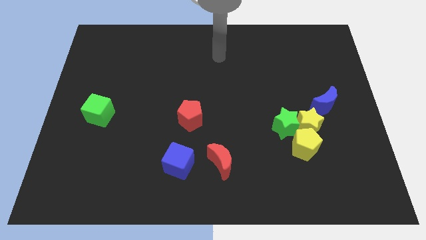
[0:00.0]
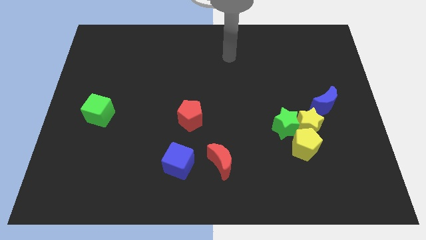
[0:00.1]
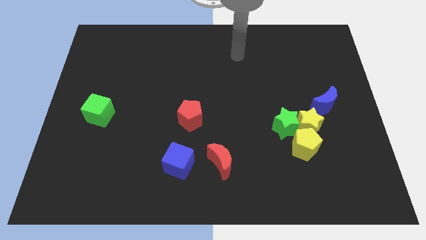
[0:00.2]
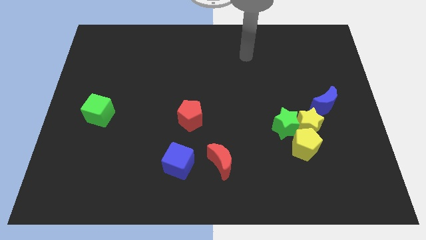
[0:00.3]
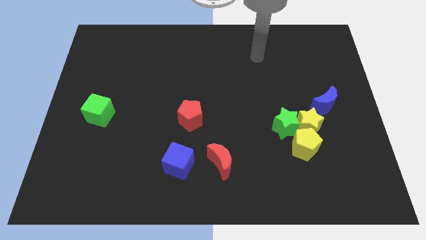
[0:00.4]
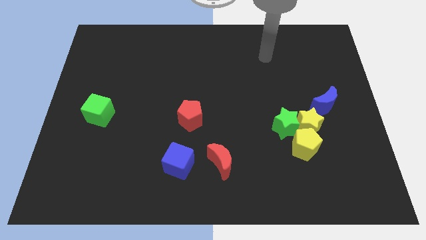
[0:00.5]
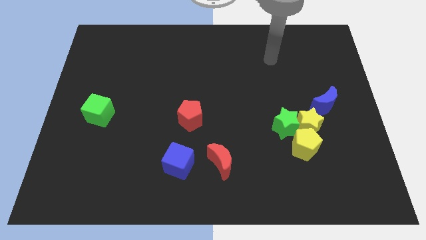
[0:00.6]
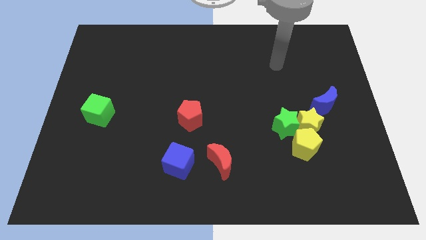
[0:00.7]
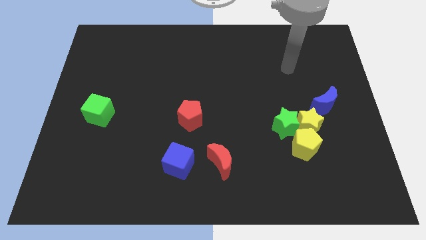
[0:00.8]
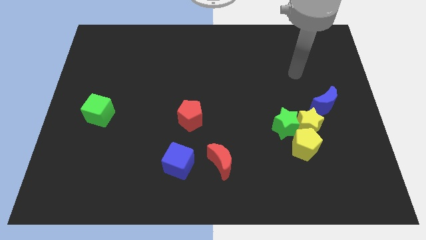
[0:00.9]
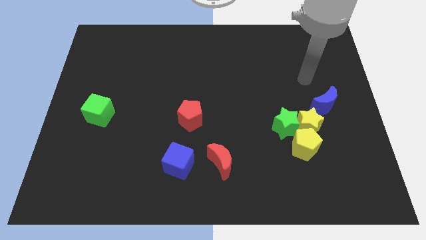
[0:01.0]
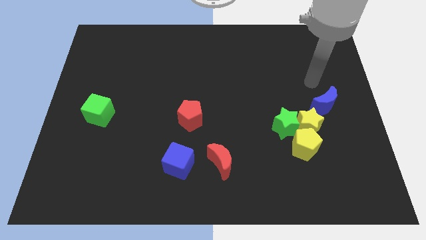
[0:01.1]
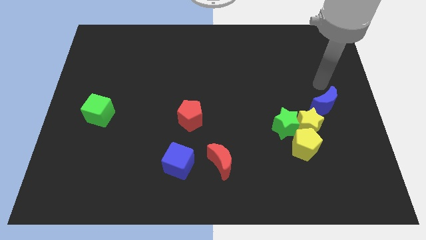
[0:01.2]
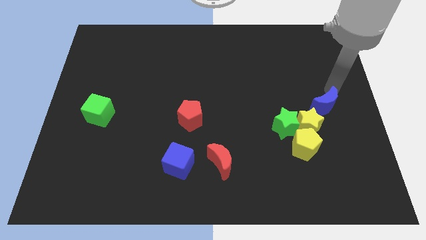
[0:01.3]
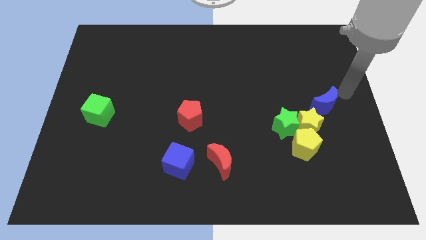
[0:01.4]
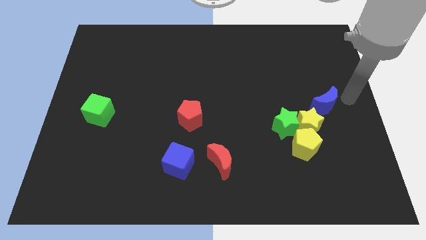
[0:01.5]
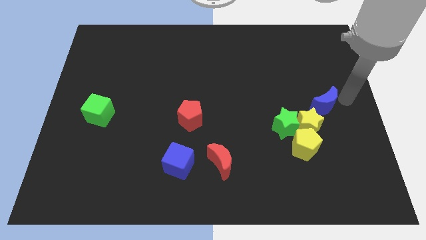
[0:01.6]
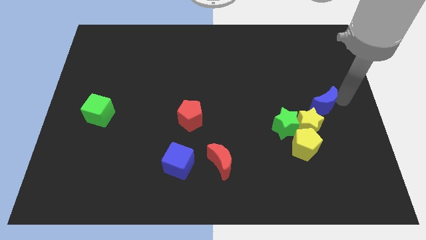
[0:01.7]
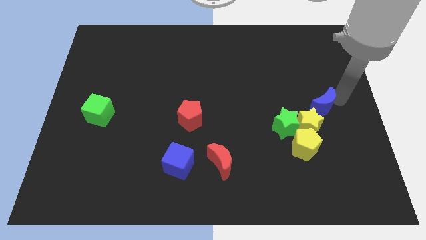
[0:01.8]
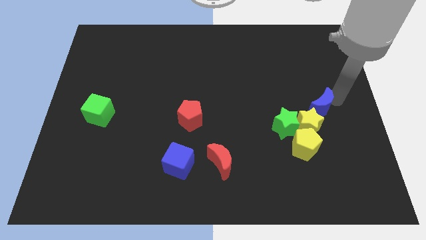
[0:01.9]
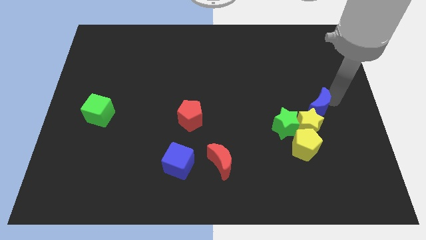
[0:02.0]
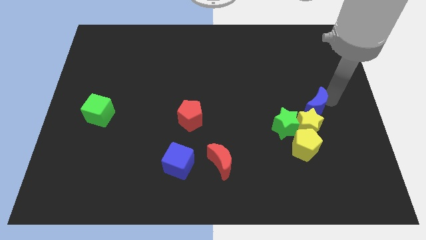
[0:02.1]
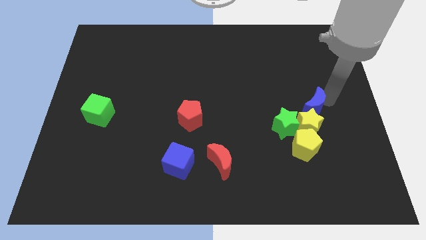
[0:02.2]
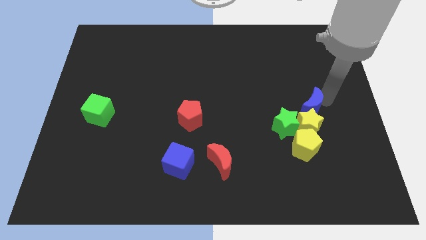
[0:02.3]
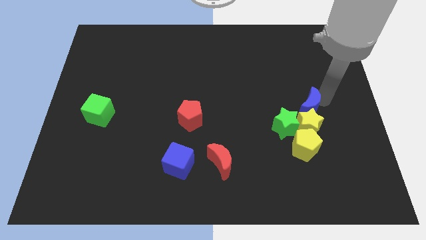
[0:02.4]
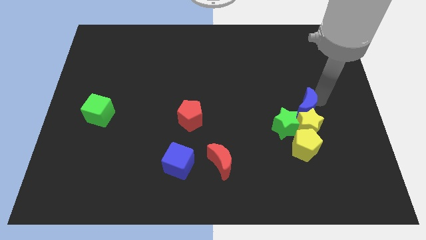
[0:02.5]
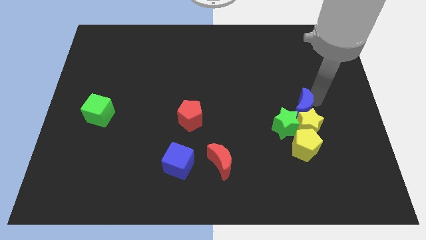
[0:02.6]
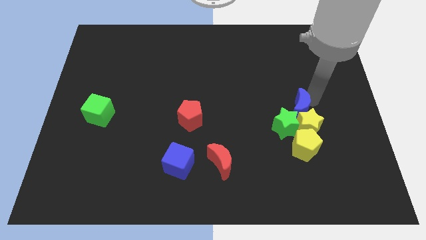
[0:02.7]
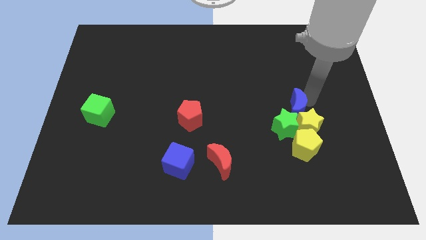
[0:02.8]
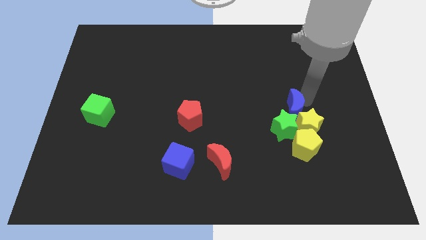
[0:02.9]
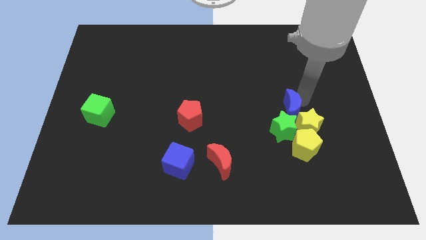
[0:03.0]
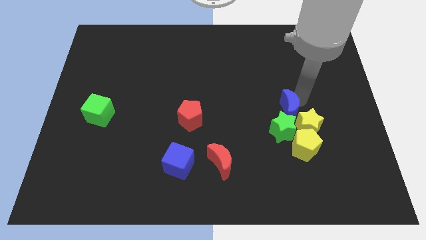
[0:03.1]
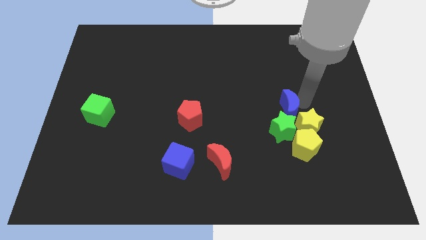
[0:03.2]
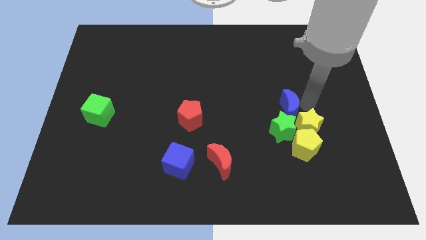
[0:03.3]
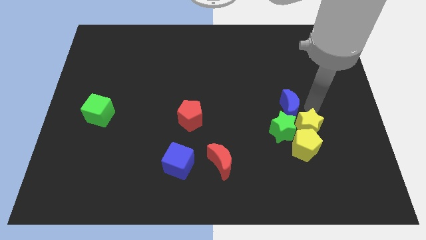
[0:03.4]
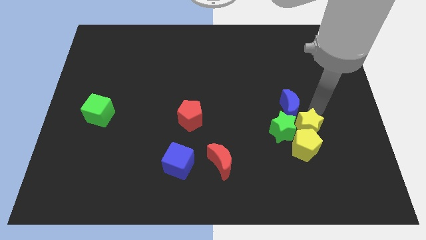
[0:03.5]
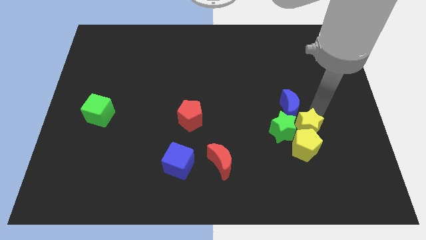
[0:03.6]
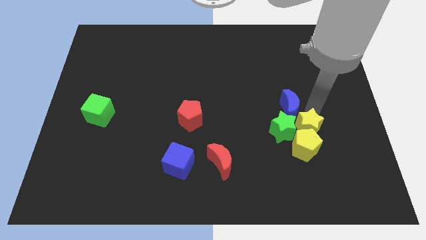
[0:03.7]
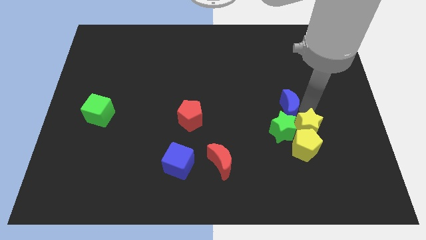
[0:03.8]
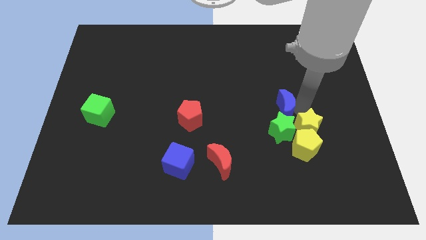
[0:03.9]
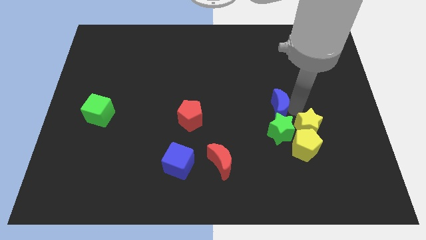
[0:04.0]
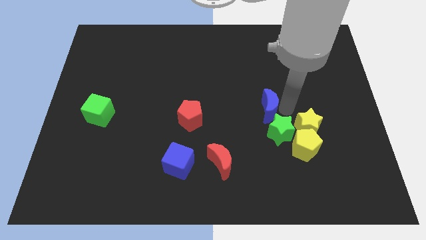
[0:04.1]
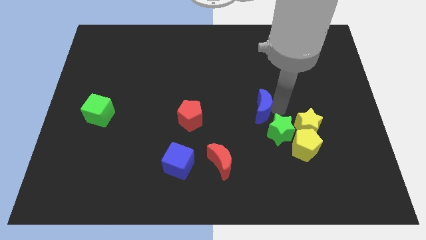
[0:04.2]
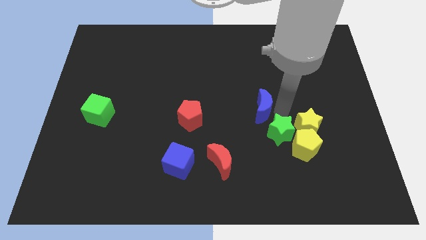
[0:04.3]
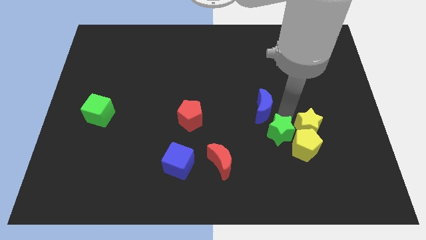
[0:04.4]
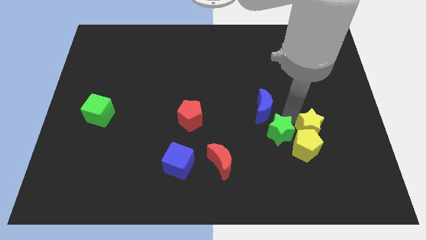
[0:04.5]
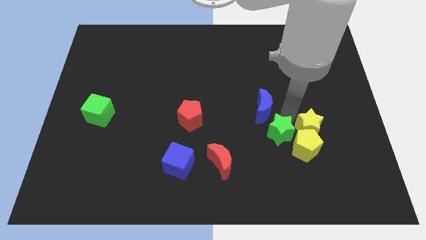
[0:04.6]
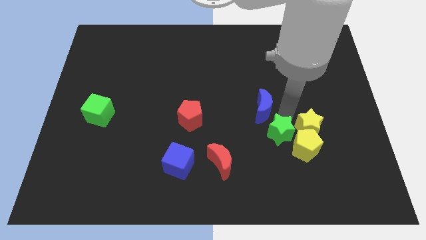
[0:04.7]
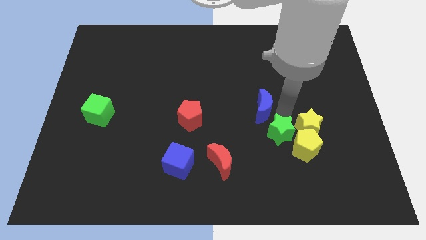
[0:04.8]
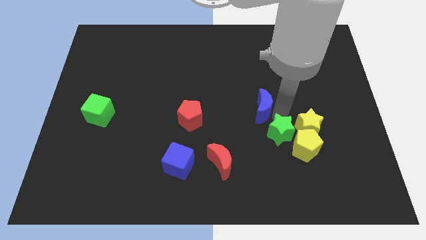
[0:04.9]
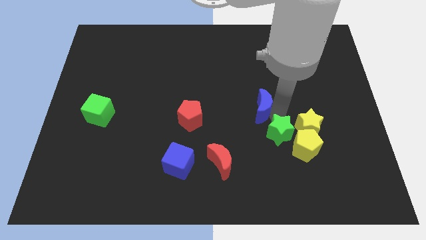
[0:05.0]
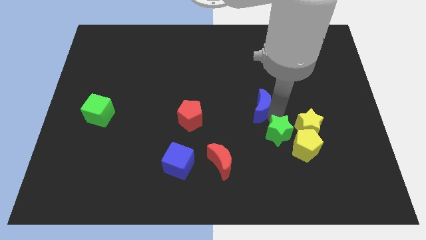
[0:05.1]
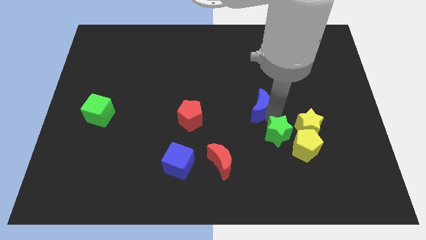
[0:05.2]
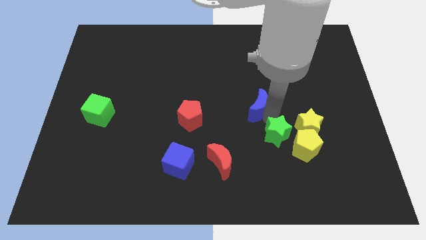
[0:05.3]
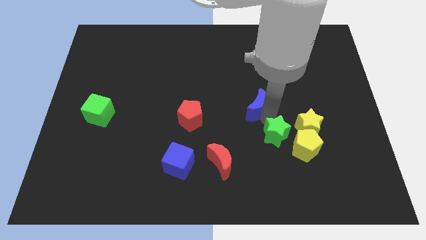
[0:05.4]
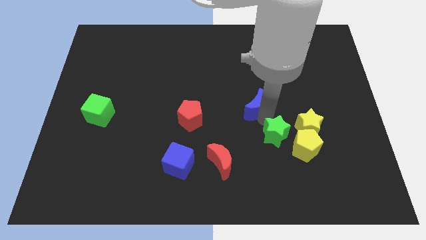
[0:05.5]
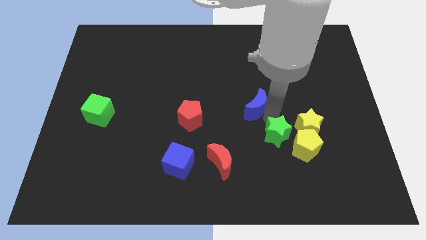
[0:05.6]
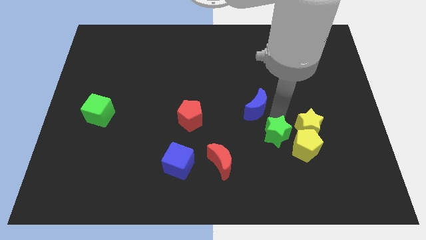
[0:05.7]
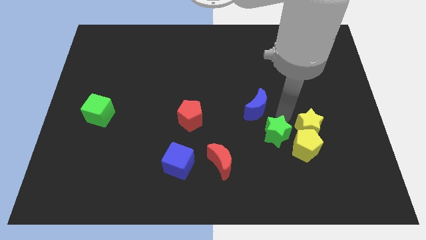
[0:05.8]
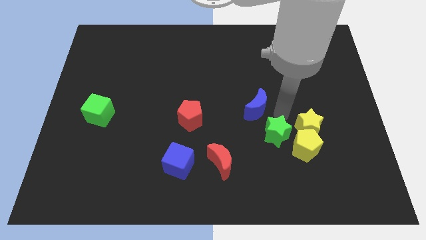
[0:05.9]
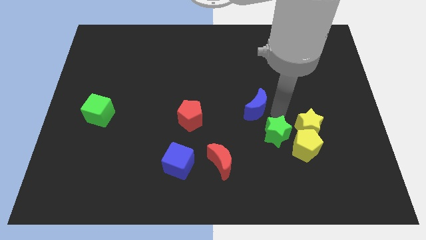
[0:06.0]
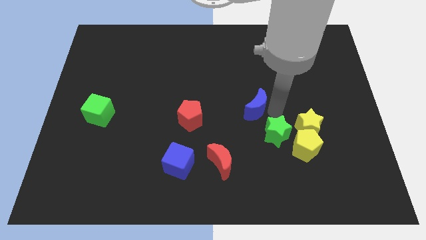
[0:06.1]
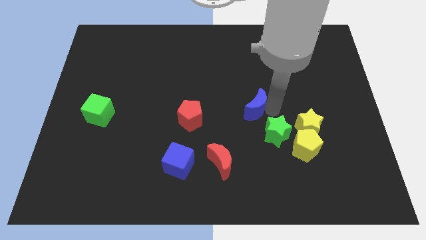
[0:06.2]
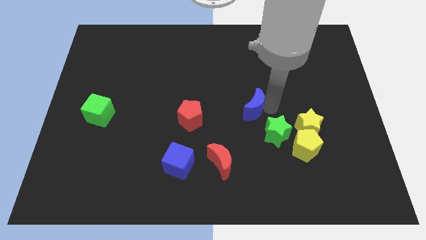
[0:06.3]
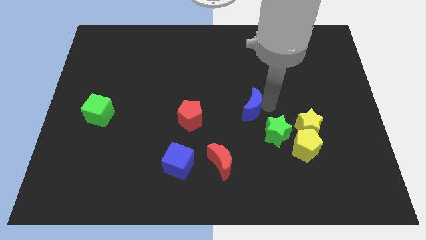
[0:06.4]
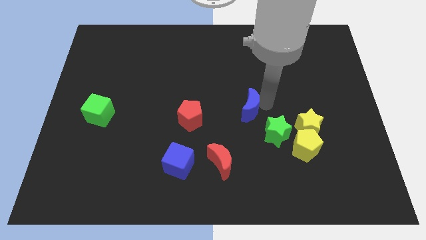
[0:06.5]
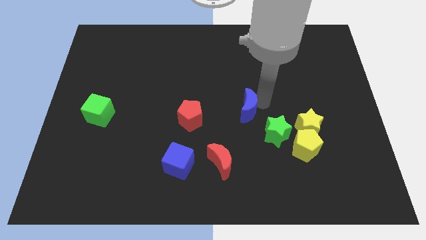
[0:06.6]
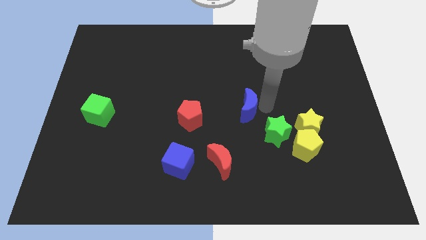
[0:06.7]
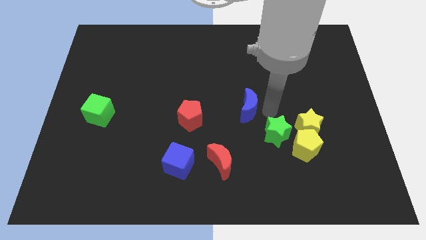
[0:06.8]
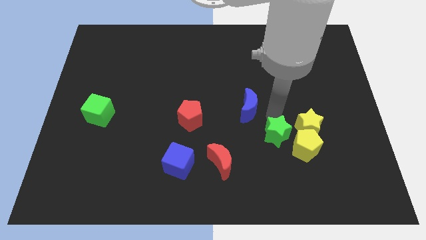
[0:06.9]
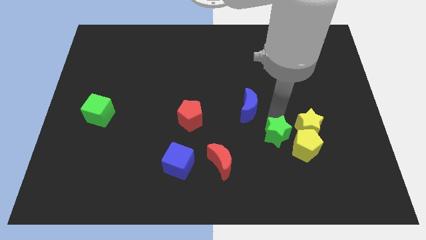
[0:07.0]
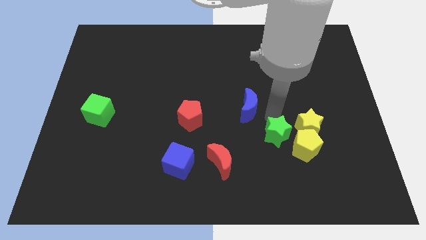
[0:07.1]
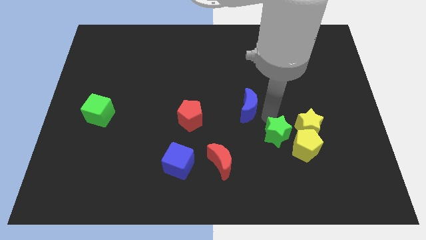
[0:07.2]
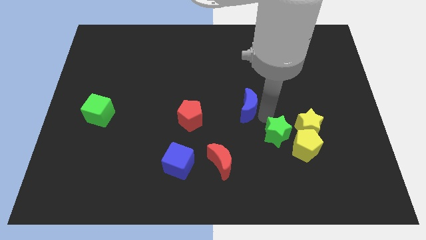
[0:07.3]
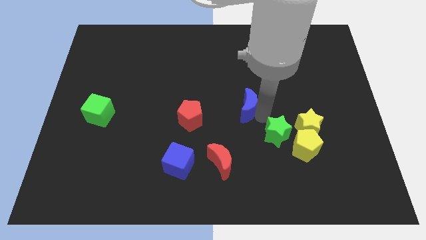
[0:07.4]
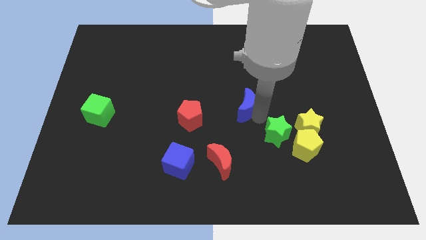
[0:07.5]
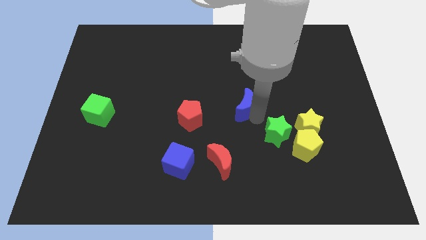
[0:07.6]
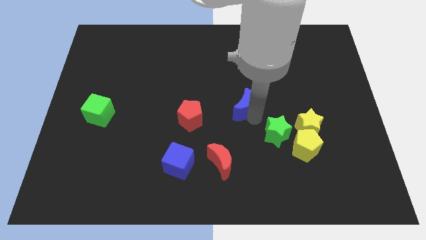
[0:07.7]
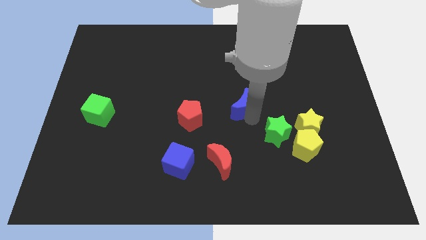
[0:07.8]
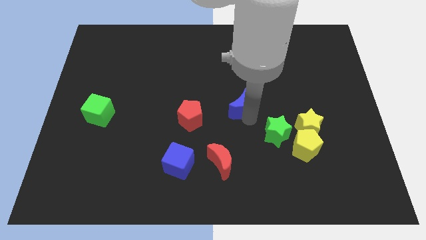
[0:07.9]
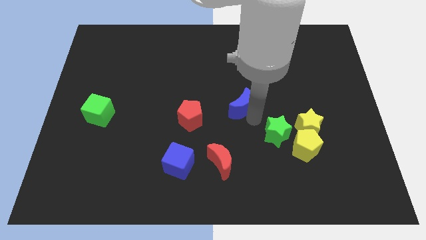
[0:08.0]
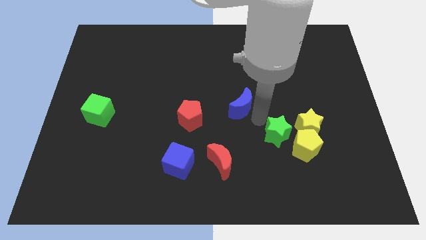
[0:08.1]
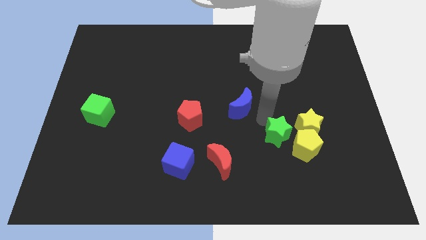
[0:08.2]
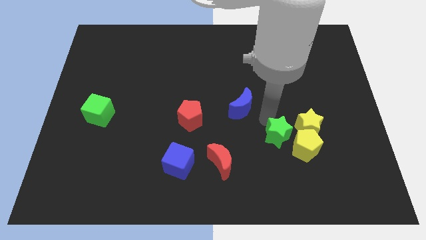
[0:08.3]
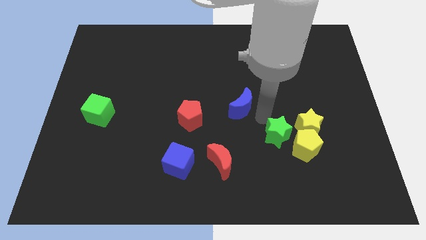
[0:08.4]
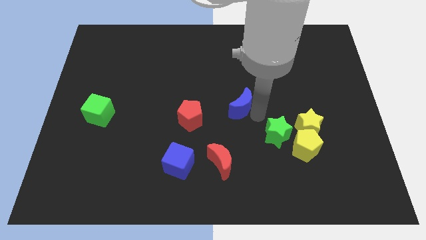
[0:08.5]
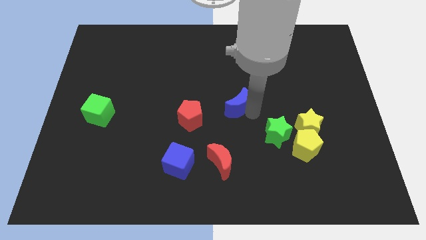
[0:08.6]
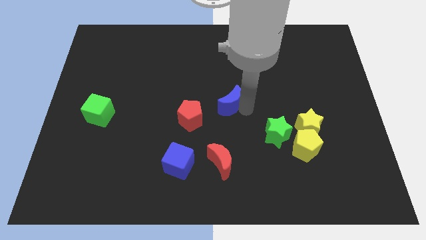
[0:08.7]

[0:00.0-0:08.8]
put the blue moon to the top right of the red pentagon
